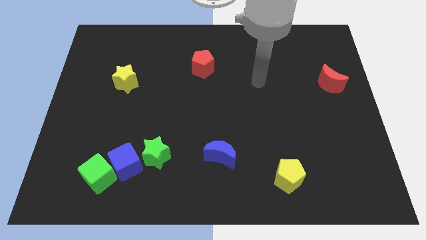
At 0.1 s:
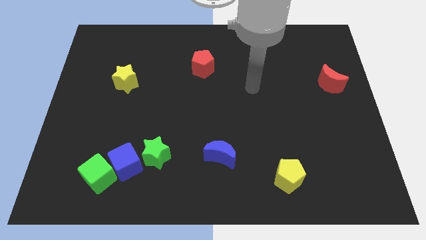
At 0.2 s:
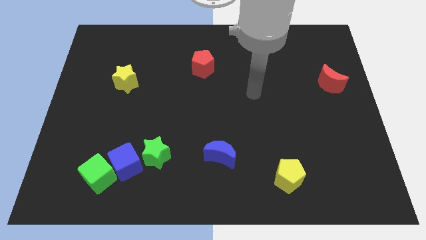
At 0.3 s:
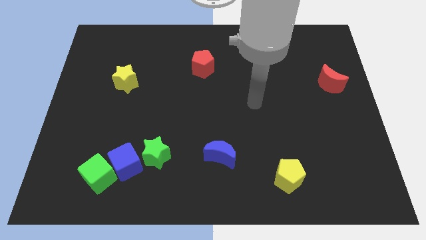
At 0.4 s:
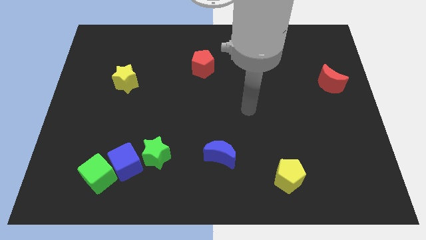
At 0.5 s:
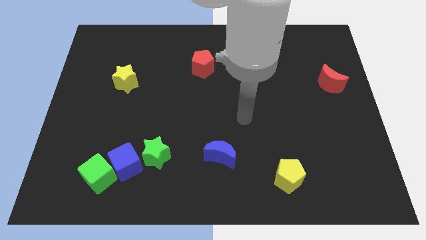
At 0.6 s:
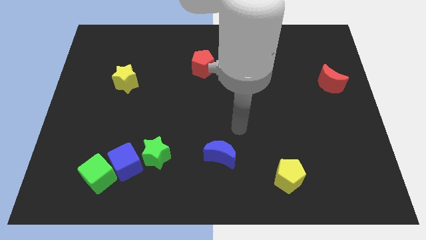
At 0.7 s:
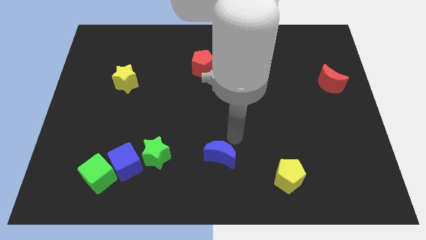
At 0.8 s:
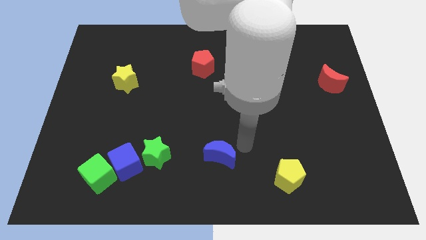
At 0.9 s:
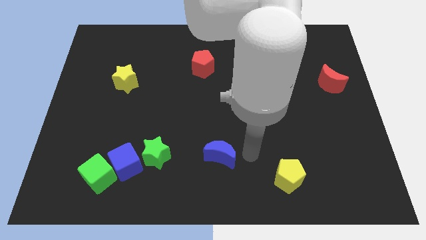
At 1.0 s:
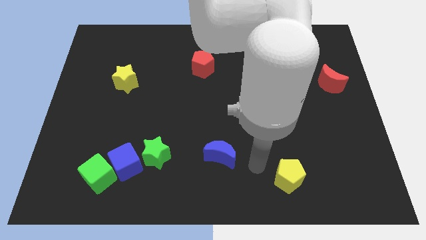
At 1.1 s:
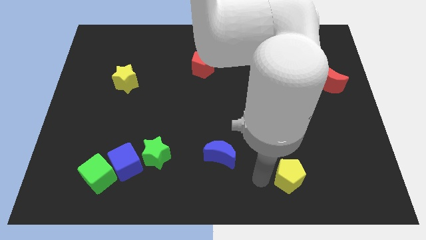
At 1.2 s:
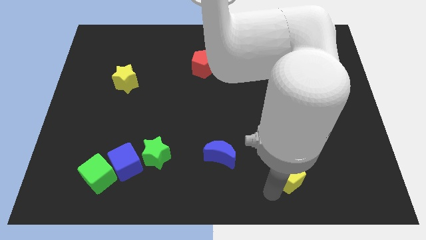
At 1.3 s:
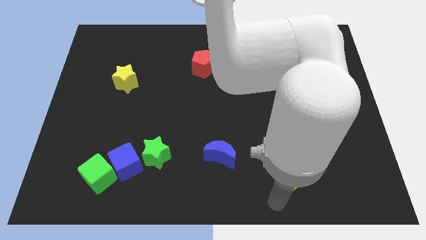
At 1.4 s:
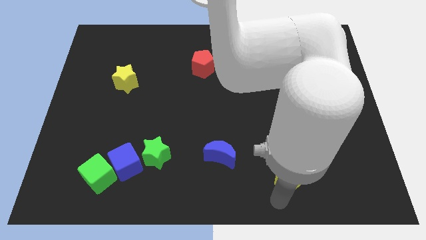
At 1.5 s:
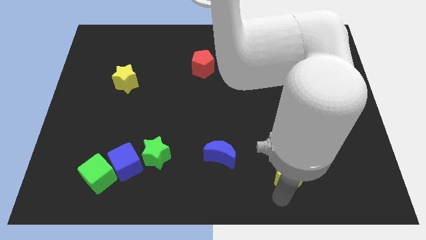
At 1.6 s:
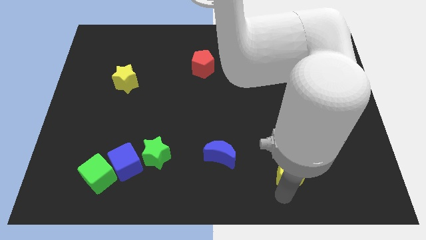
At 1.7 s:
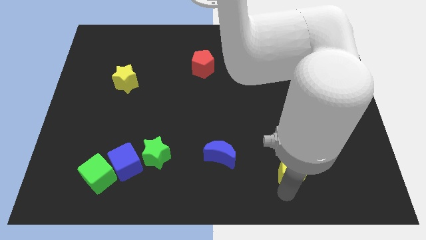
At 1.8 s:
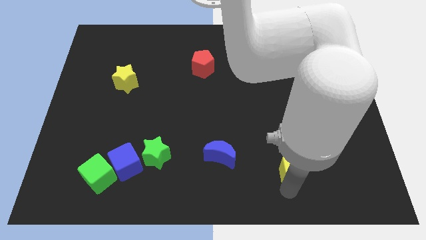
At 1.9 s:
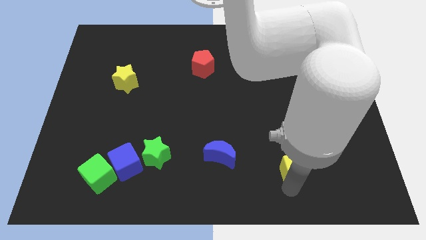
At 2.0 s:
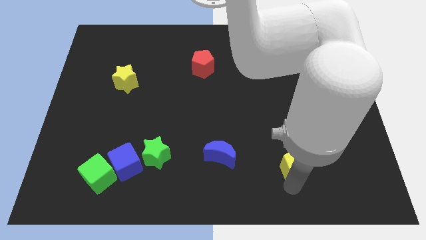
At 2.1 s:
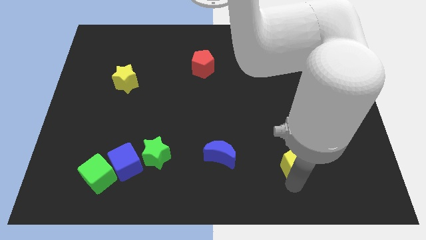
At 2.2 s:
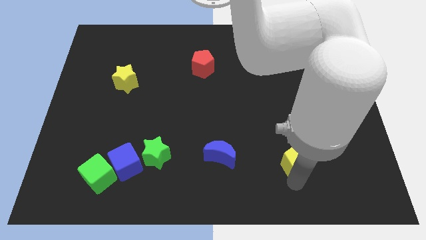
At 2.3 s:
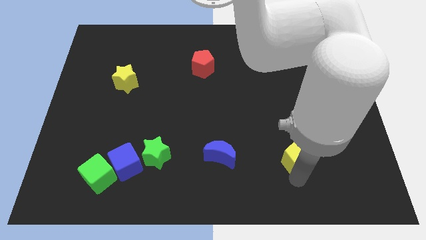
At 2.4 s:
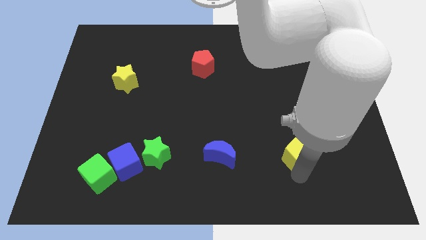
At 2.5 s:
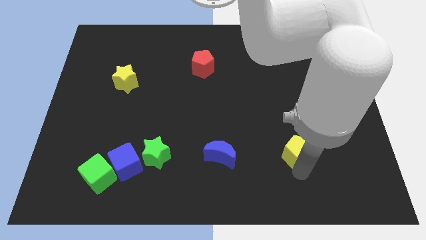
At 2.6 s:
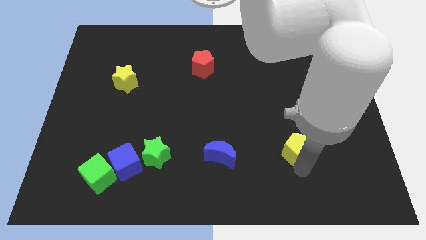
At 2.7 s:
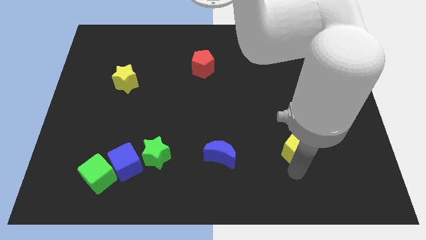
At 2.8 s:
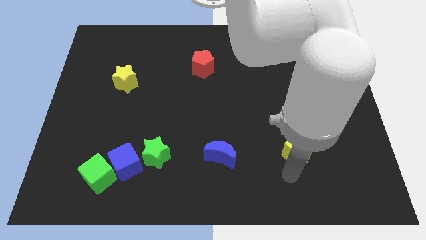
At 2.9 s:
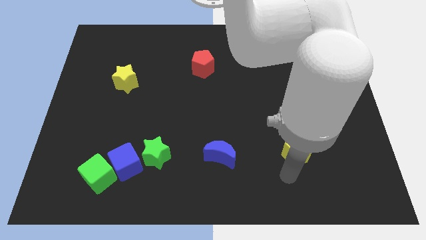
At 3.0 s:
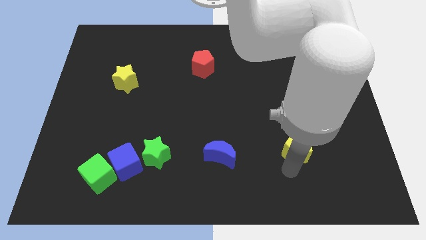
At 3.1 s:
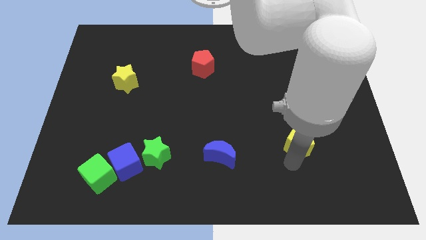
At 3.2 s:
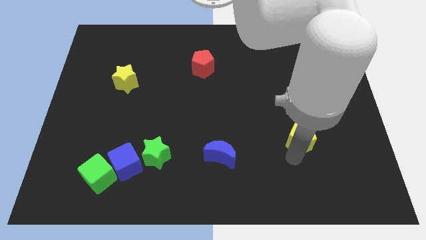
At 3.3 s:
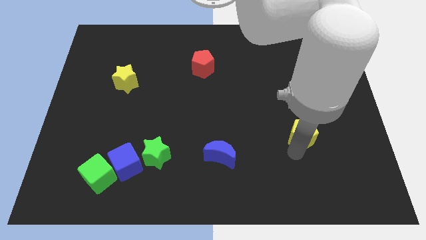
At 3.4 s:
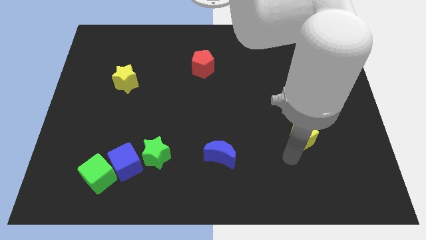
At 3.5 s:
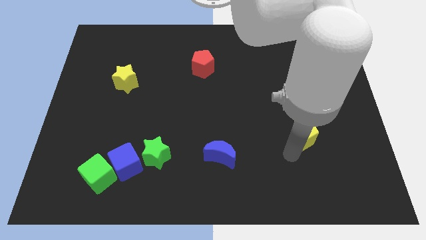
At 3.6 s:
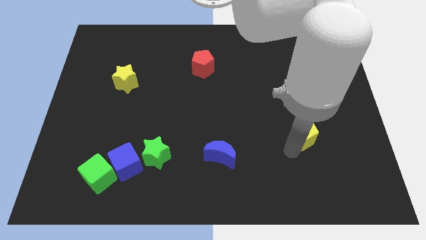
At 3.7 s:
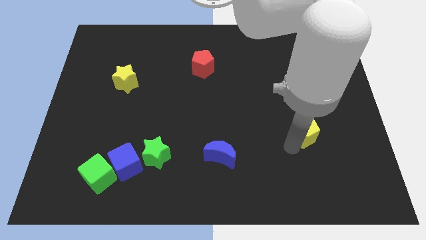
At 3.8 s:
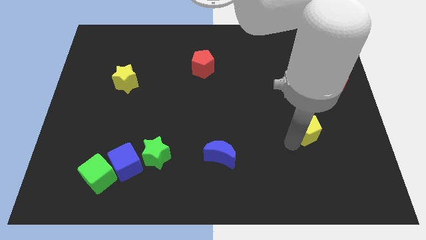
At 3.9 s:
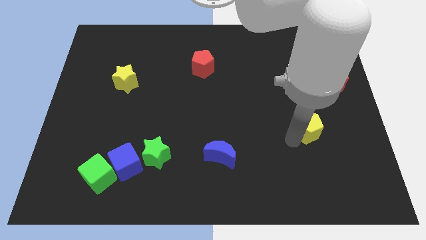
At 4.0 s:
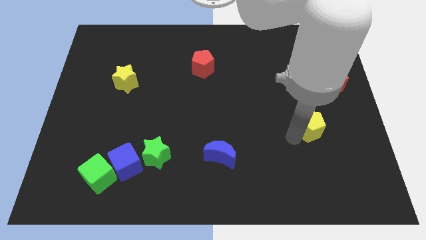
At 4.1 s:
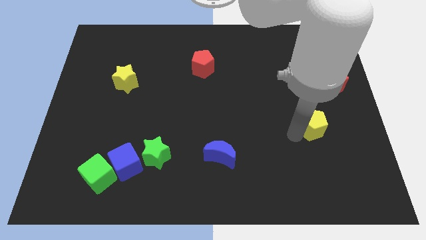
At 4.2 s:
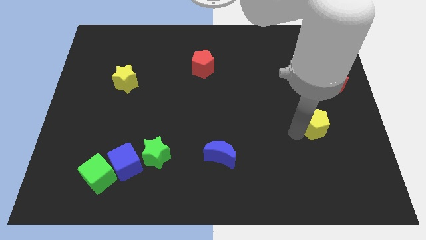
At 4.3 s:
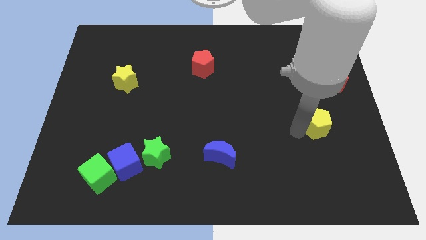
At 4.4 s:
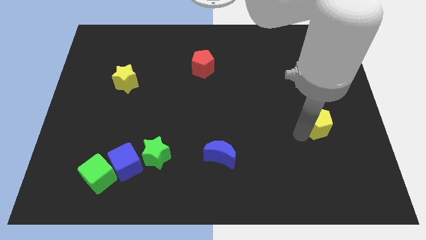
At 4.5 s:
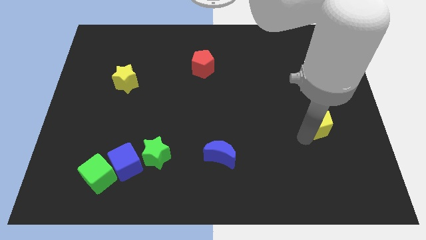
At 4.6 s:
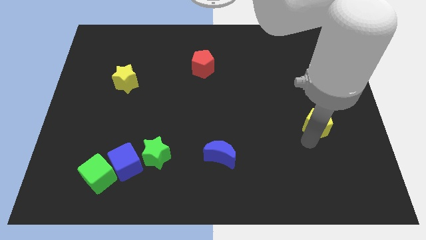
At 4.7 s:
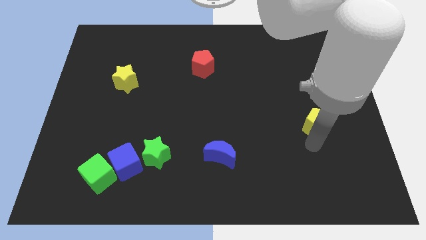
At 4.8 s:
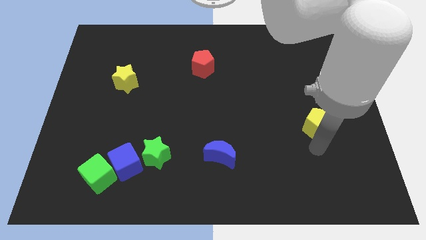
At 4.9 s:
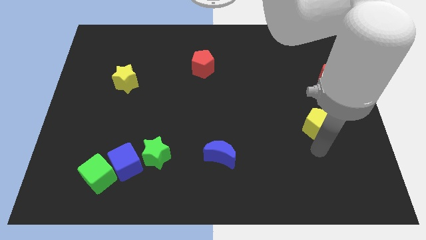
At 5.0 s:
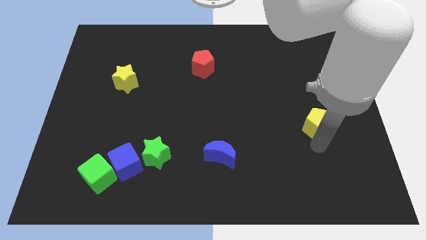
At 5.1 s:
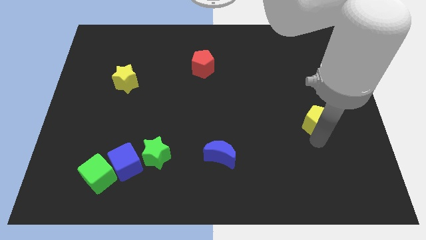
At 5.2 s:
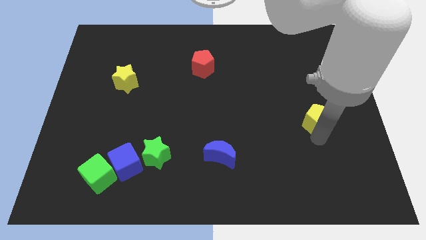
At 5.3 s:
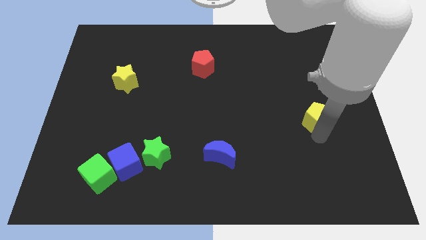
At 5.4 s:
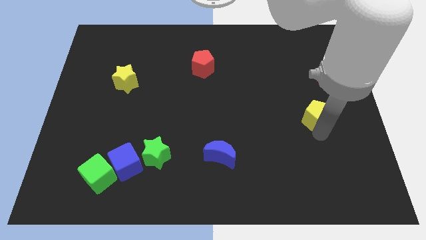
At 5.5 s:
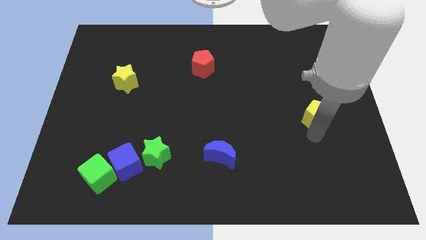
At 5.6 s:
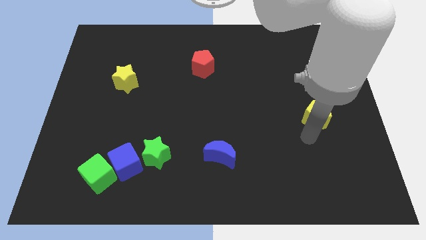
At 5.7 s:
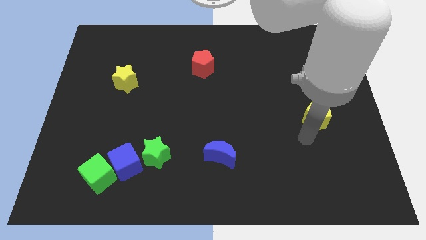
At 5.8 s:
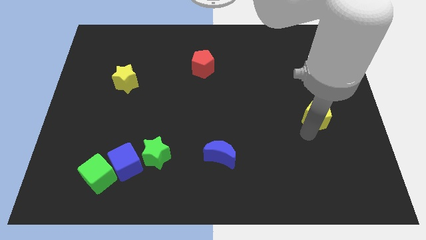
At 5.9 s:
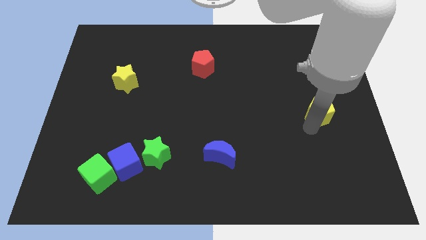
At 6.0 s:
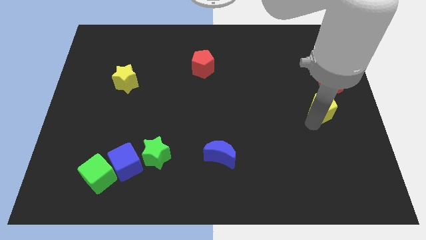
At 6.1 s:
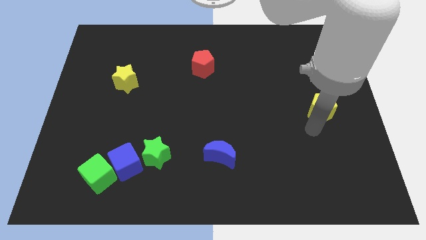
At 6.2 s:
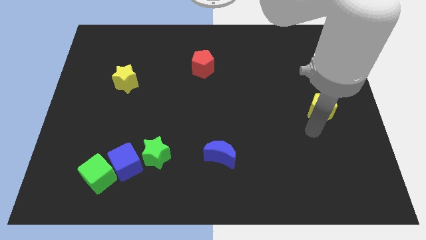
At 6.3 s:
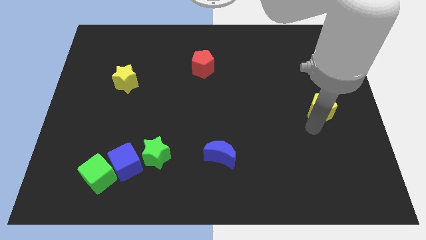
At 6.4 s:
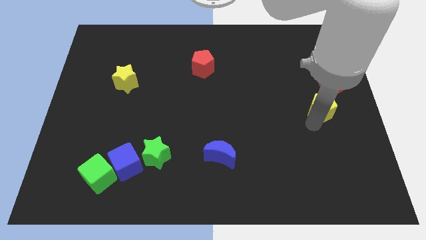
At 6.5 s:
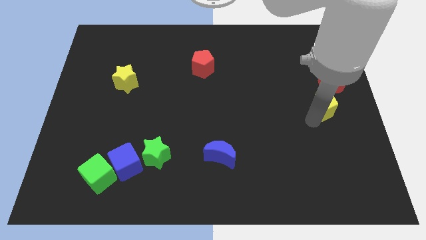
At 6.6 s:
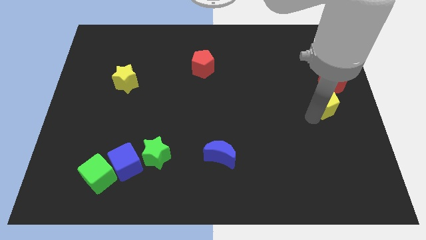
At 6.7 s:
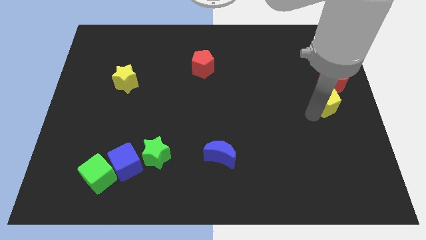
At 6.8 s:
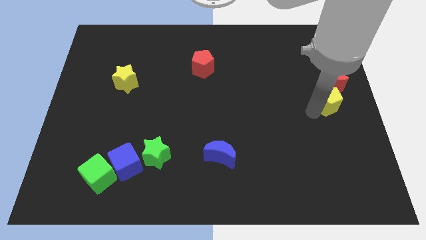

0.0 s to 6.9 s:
push the yellow pentagon close to the red moon
